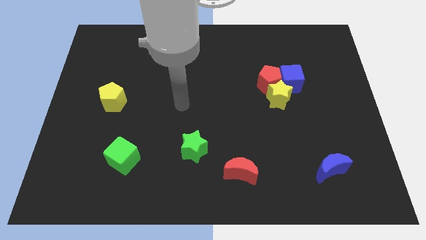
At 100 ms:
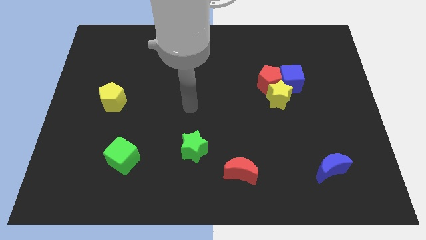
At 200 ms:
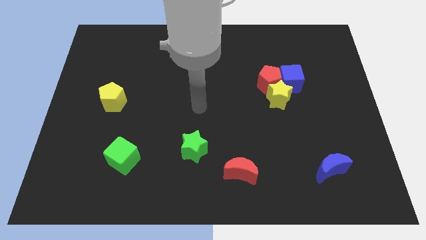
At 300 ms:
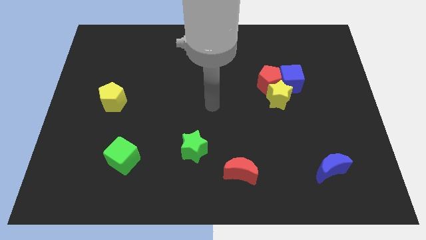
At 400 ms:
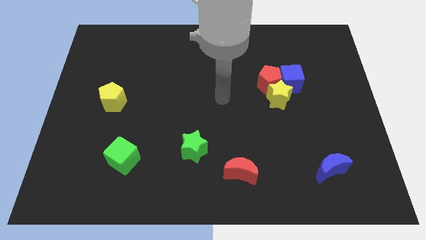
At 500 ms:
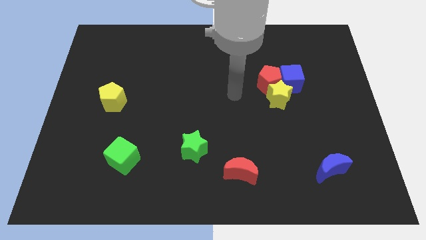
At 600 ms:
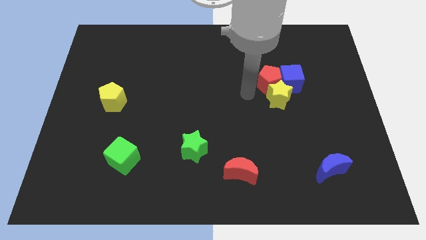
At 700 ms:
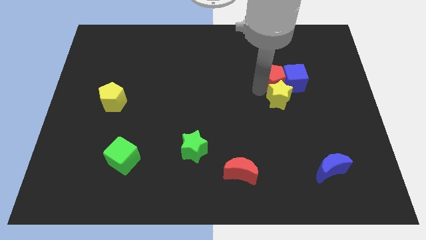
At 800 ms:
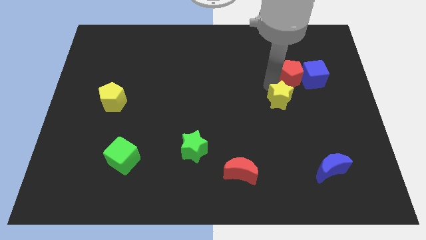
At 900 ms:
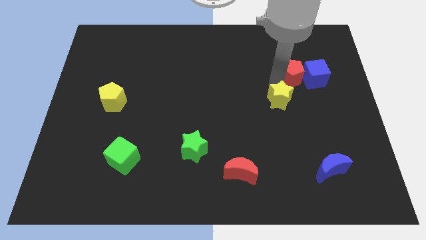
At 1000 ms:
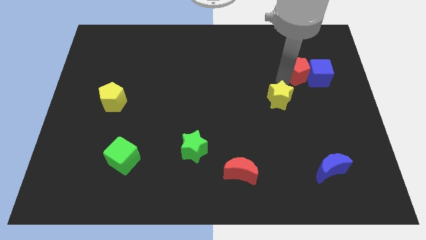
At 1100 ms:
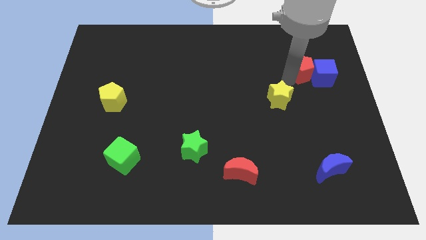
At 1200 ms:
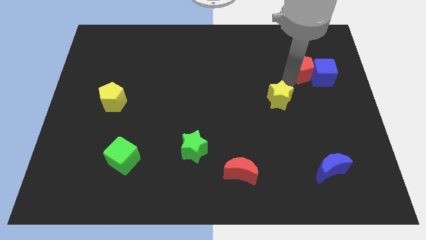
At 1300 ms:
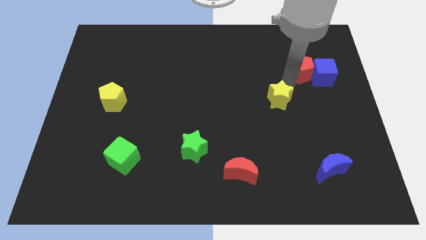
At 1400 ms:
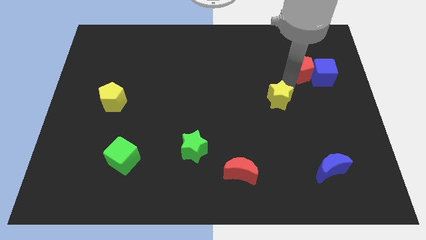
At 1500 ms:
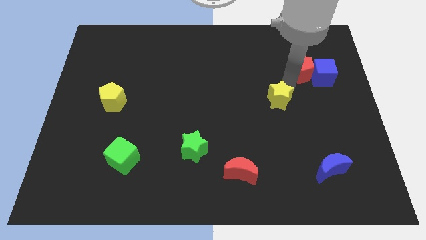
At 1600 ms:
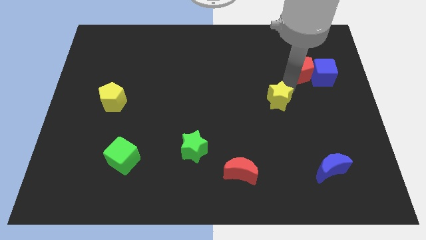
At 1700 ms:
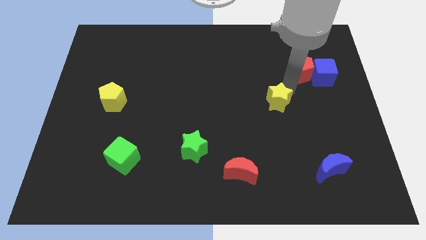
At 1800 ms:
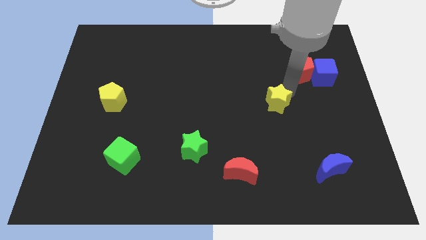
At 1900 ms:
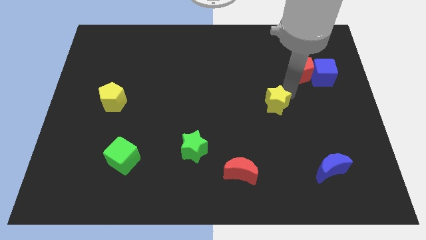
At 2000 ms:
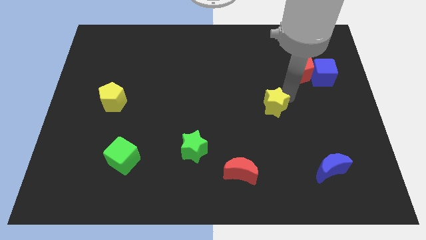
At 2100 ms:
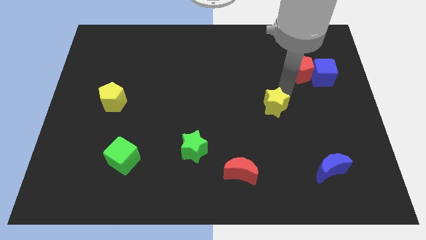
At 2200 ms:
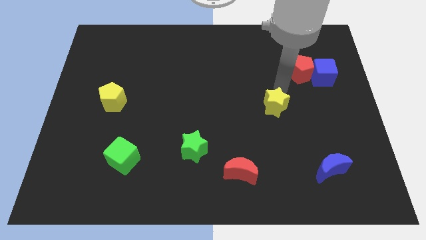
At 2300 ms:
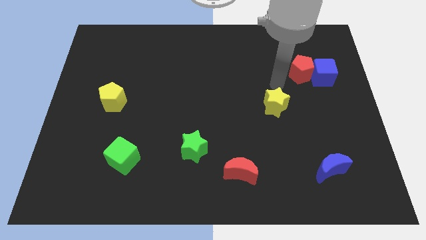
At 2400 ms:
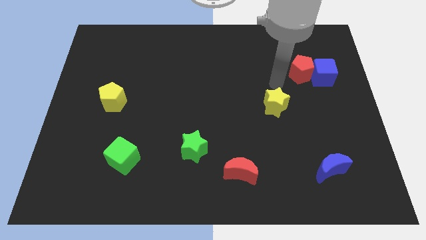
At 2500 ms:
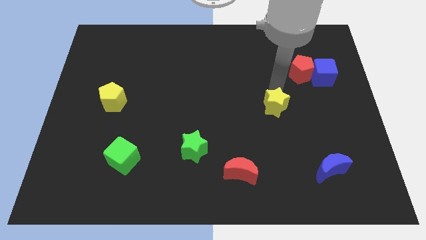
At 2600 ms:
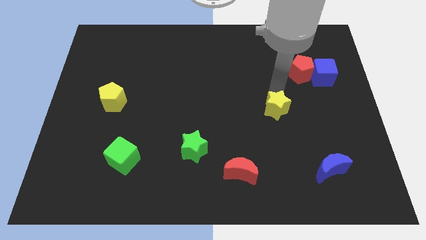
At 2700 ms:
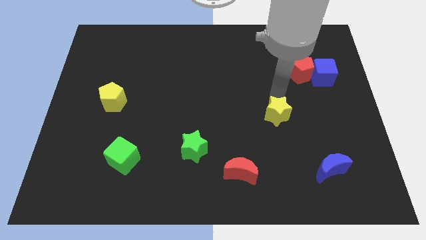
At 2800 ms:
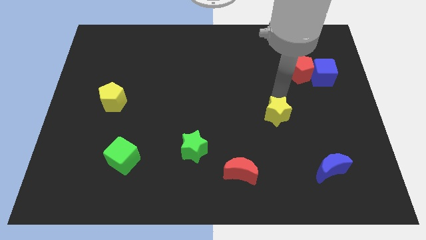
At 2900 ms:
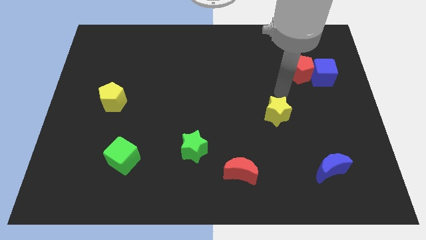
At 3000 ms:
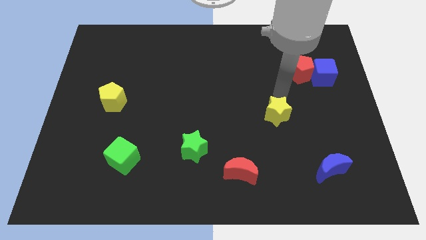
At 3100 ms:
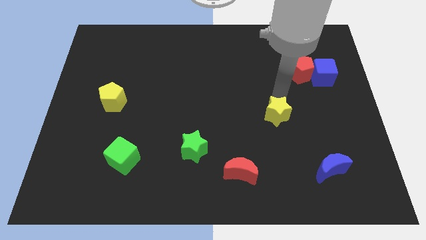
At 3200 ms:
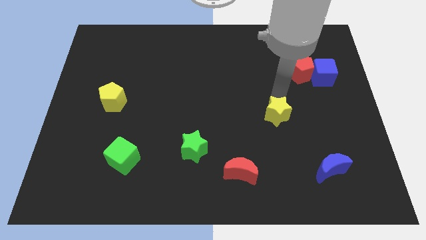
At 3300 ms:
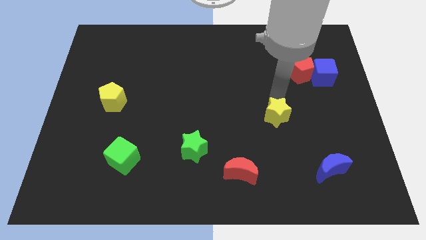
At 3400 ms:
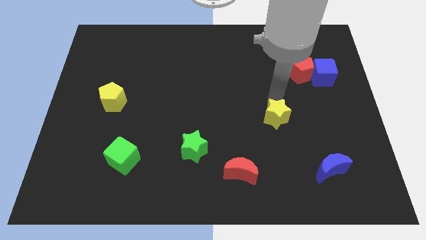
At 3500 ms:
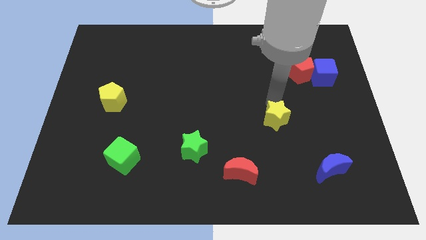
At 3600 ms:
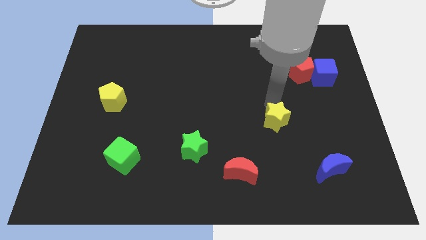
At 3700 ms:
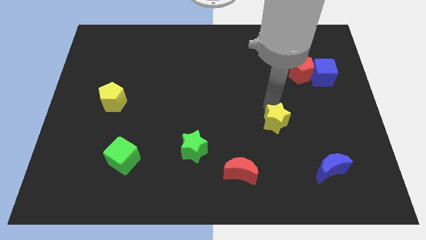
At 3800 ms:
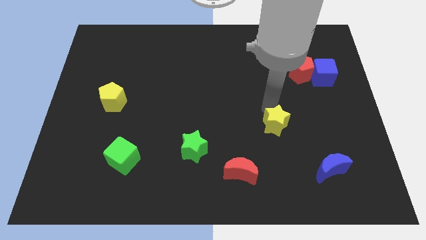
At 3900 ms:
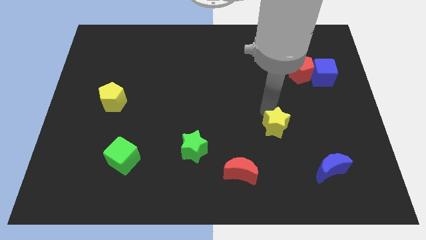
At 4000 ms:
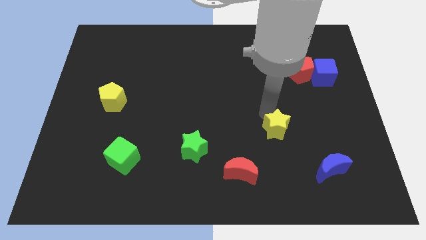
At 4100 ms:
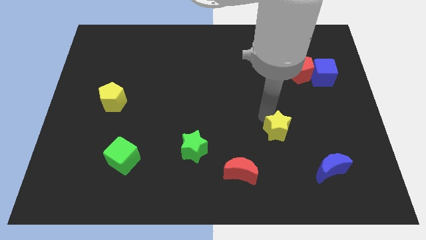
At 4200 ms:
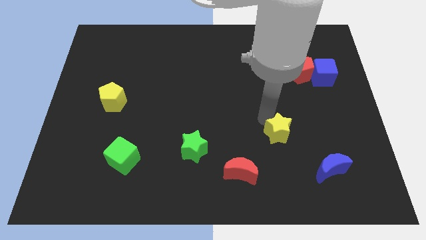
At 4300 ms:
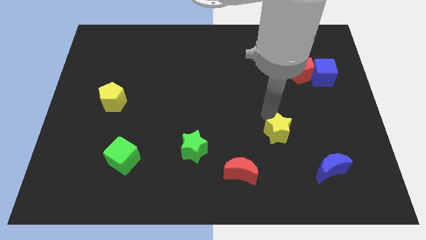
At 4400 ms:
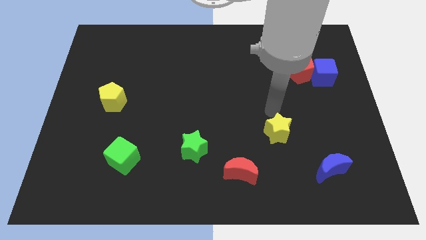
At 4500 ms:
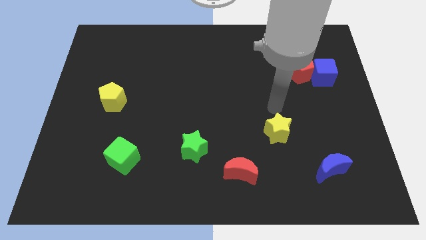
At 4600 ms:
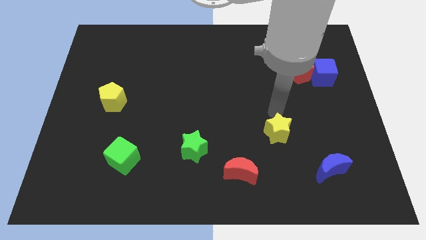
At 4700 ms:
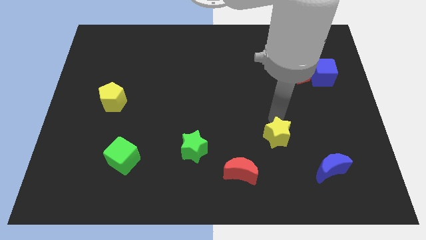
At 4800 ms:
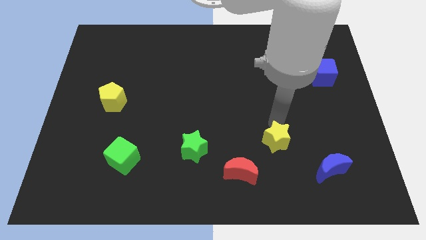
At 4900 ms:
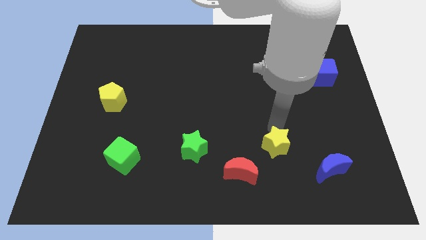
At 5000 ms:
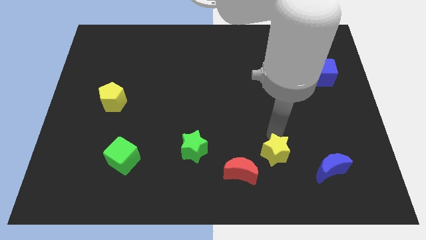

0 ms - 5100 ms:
push the yellow star to the left of the blue moon

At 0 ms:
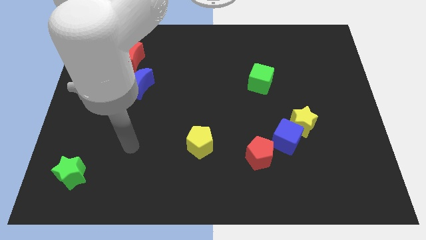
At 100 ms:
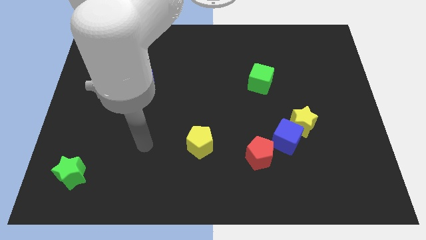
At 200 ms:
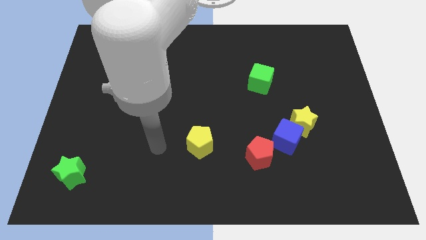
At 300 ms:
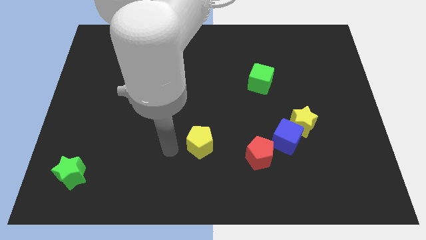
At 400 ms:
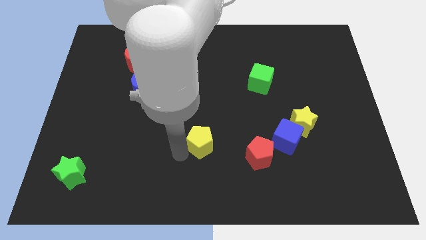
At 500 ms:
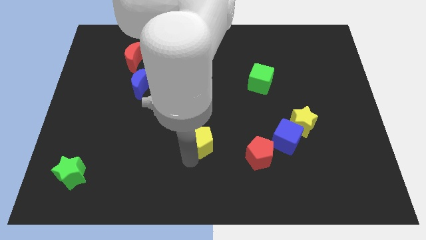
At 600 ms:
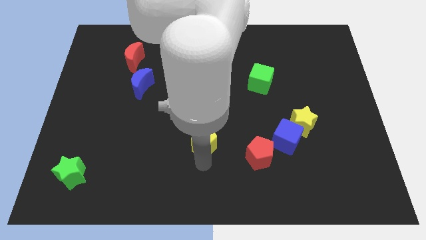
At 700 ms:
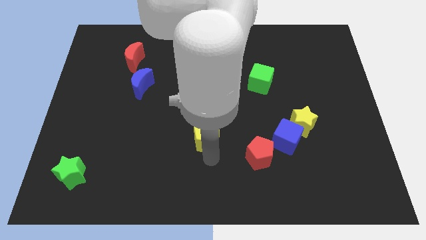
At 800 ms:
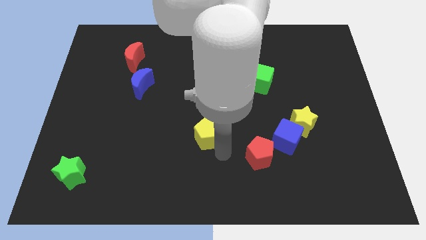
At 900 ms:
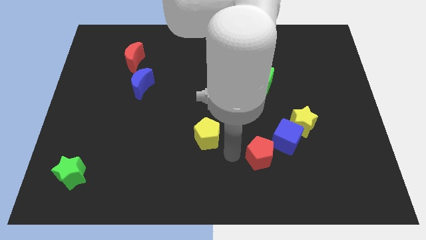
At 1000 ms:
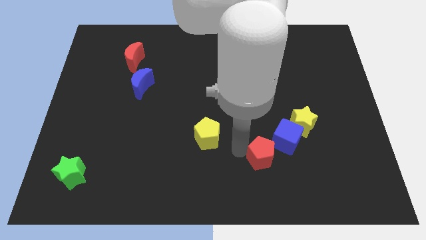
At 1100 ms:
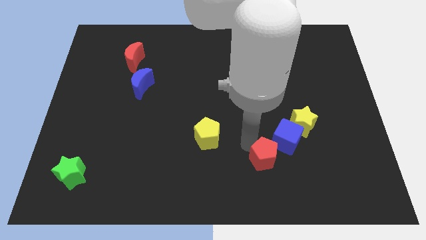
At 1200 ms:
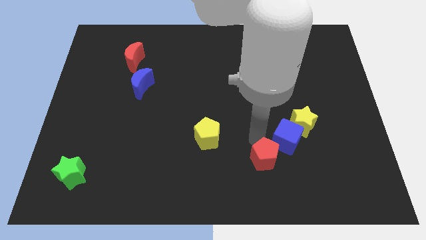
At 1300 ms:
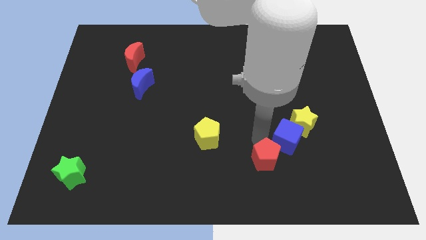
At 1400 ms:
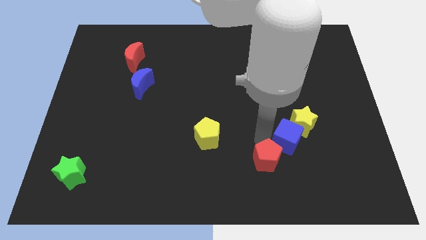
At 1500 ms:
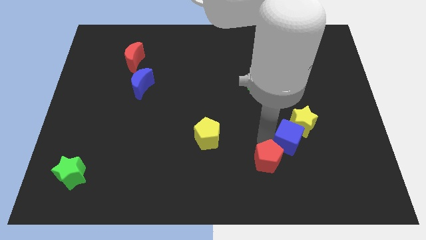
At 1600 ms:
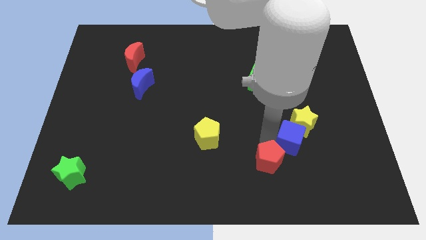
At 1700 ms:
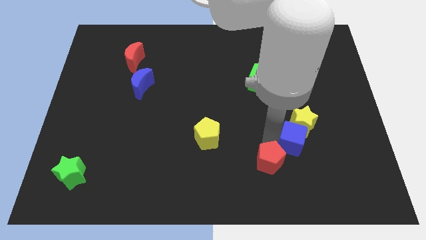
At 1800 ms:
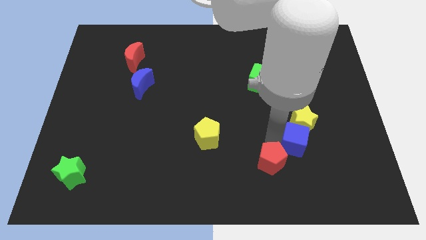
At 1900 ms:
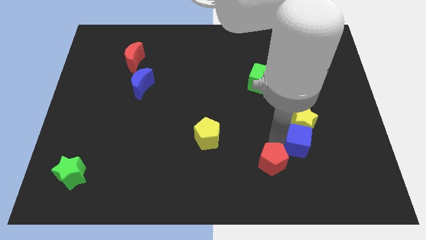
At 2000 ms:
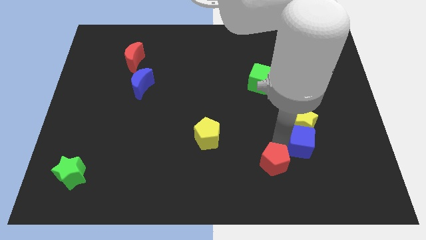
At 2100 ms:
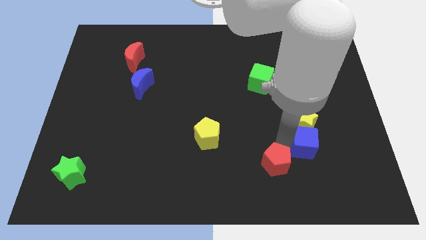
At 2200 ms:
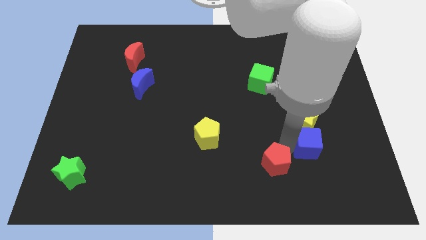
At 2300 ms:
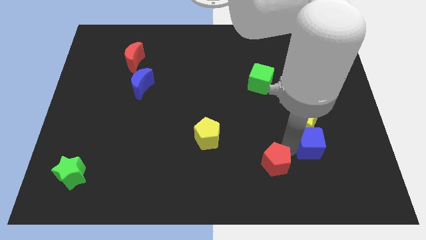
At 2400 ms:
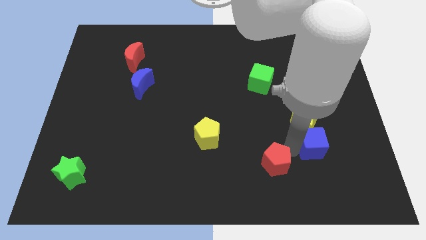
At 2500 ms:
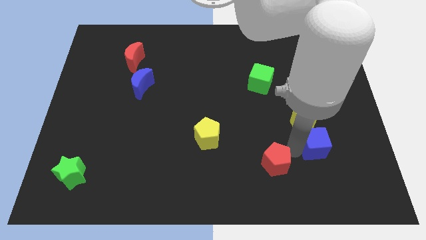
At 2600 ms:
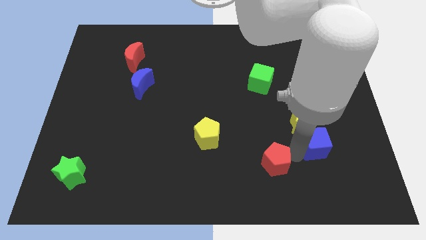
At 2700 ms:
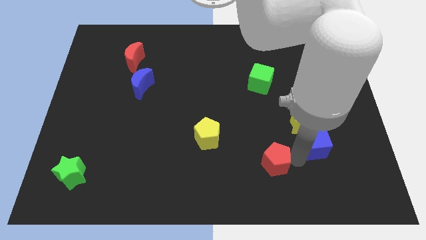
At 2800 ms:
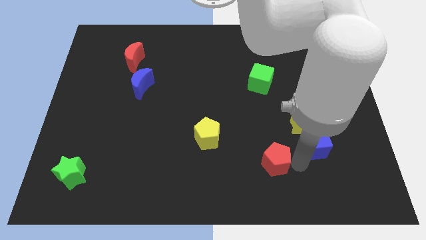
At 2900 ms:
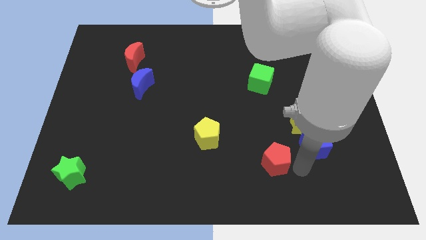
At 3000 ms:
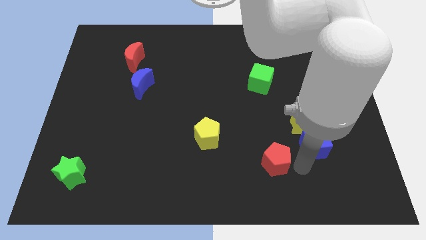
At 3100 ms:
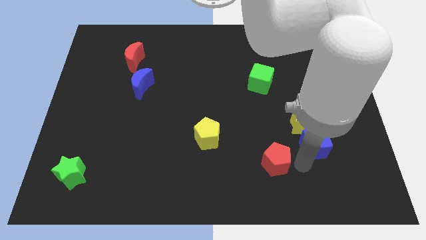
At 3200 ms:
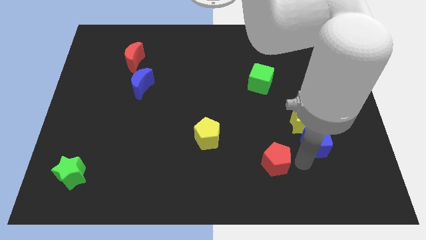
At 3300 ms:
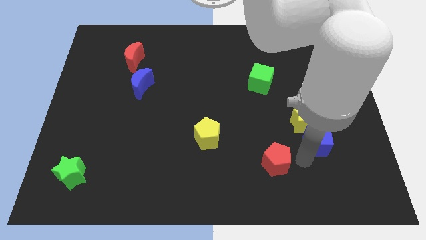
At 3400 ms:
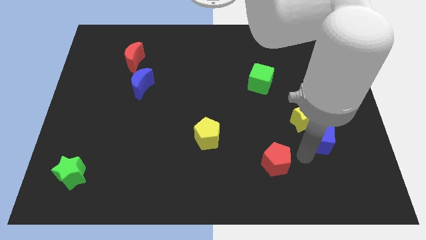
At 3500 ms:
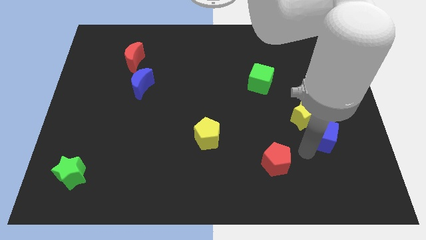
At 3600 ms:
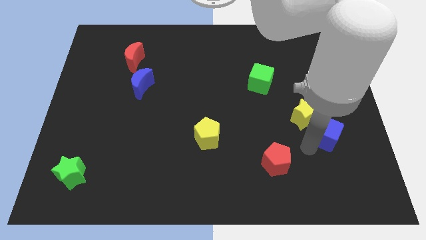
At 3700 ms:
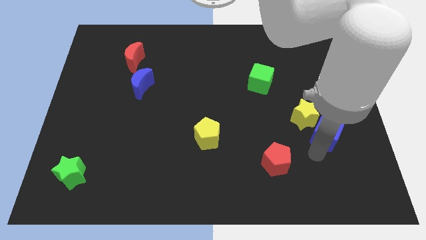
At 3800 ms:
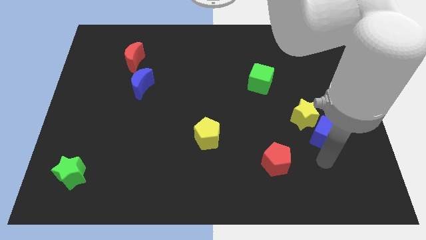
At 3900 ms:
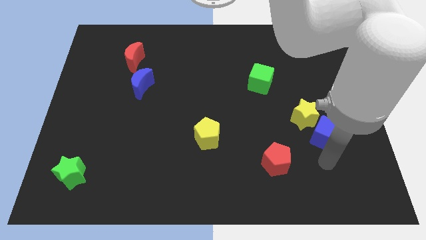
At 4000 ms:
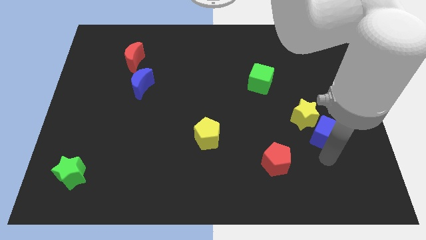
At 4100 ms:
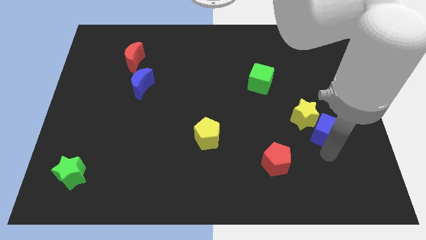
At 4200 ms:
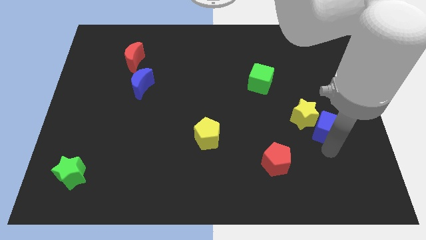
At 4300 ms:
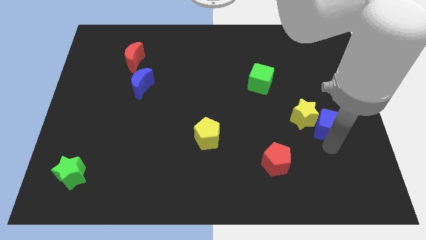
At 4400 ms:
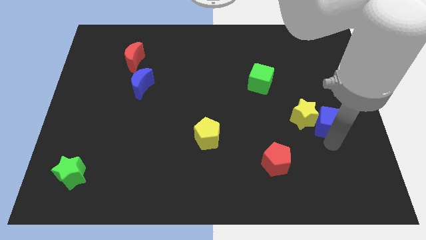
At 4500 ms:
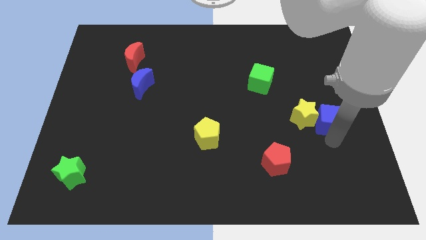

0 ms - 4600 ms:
push the blue cube diagonally up and to the right of the yellow star
